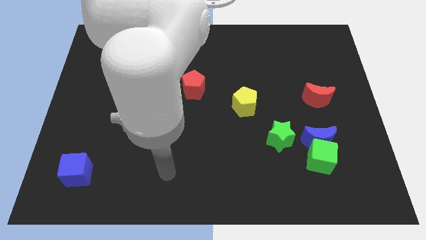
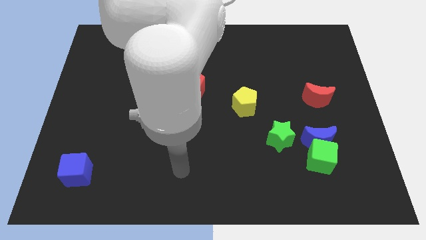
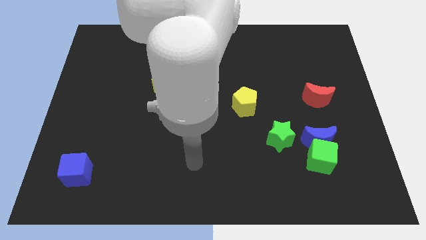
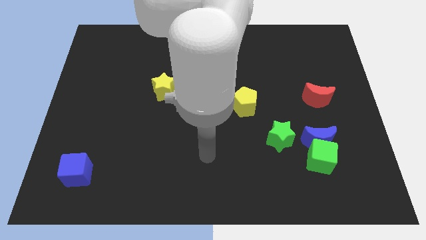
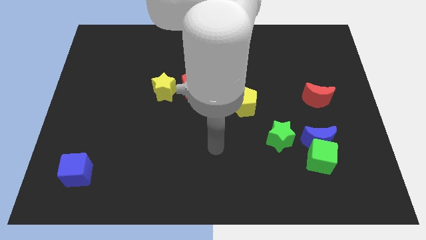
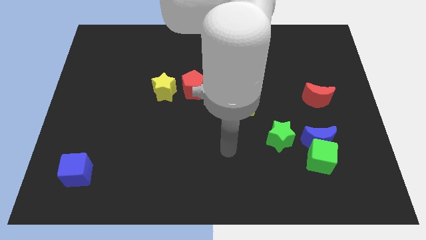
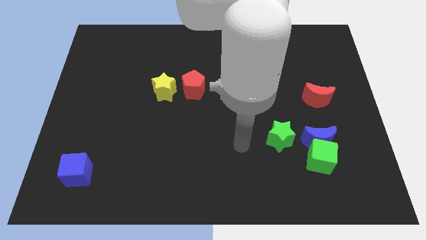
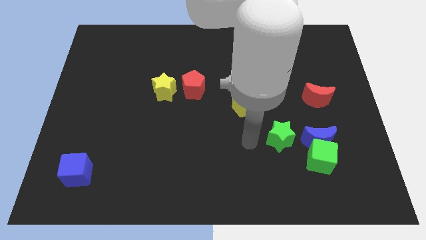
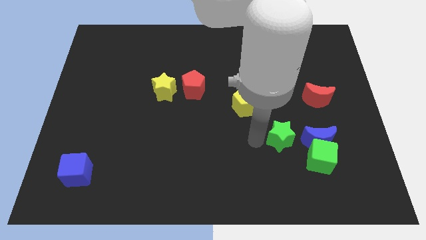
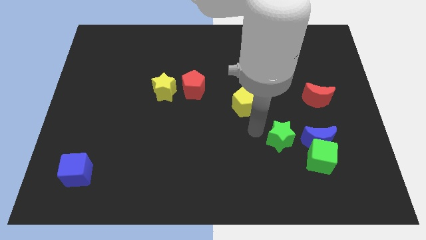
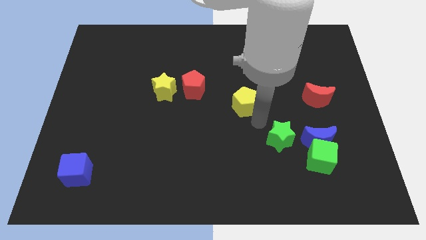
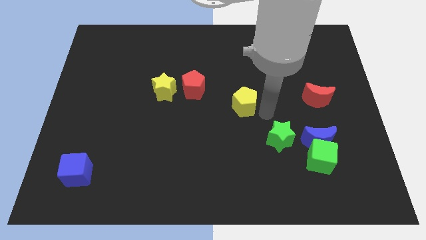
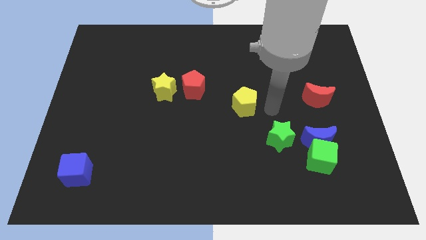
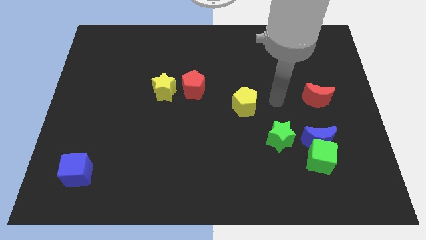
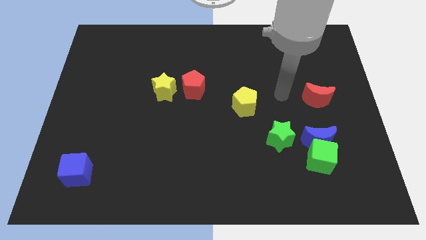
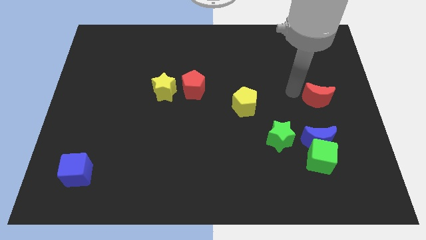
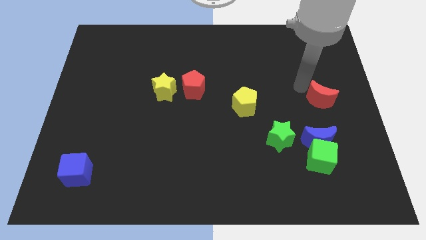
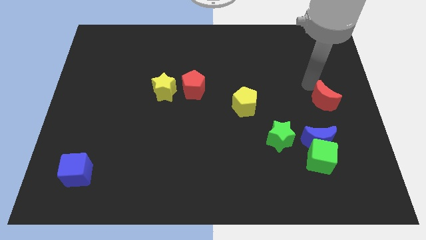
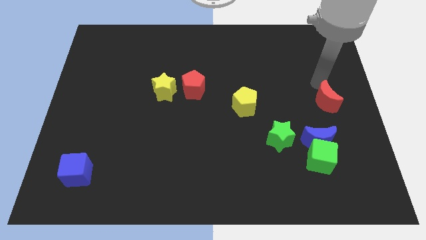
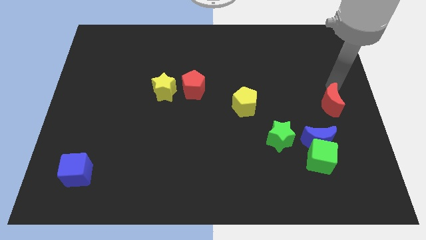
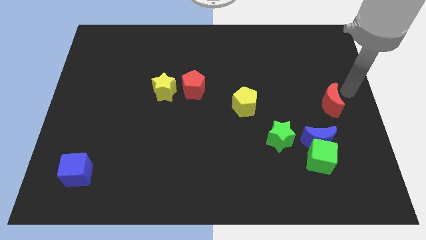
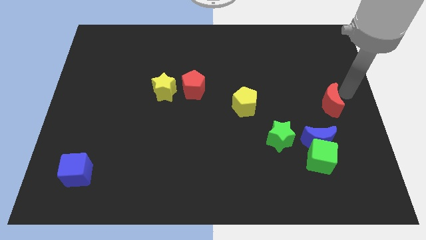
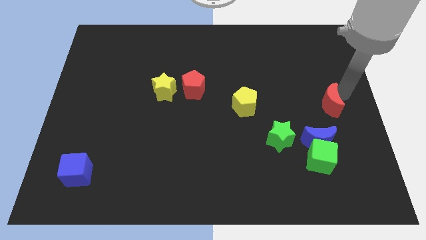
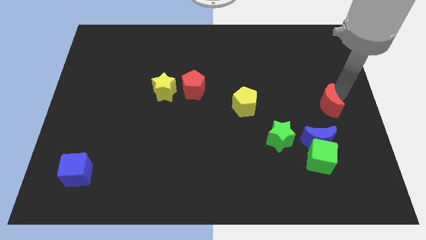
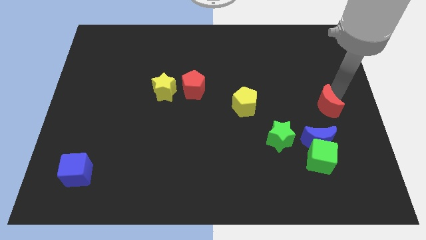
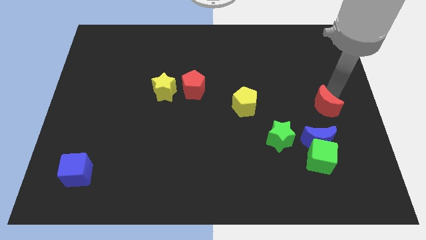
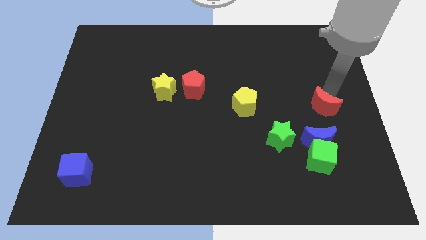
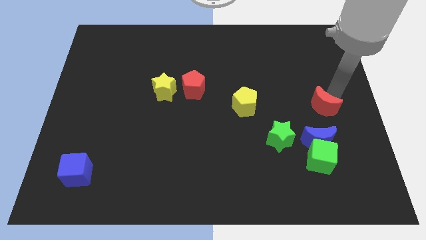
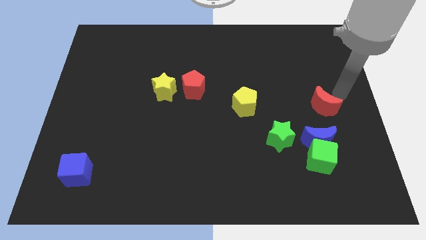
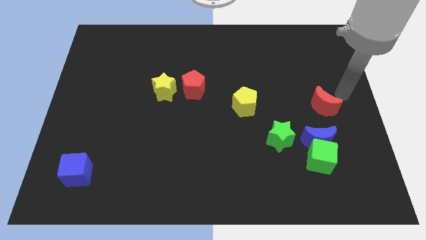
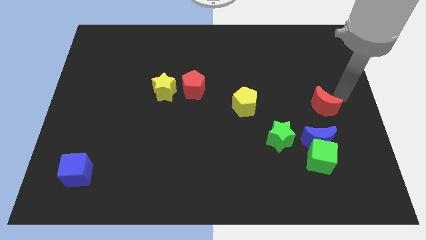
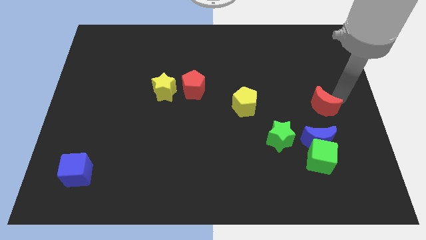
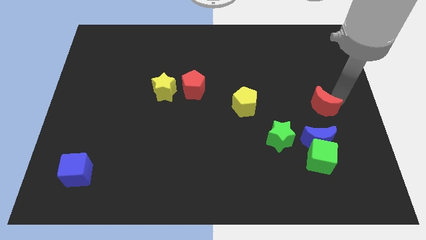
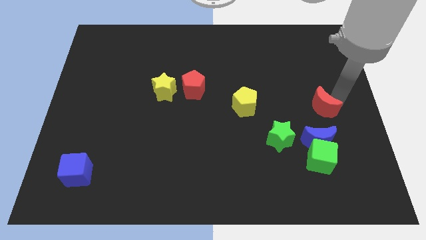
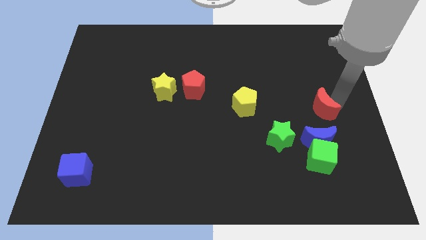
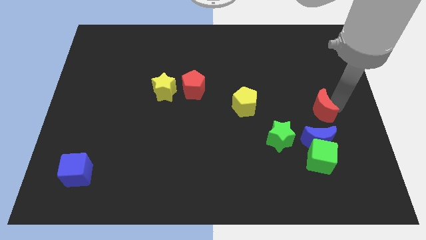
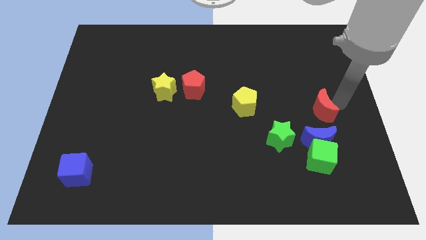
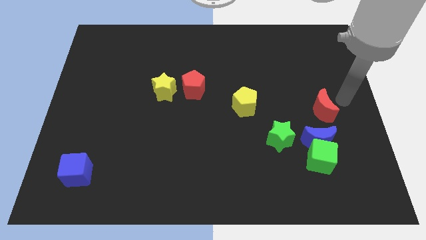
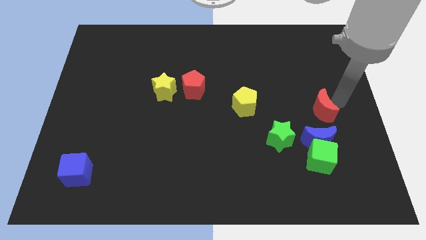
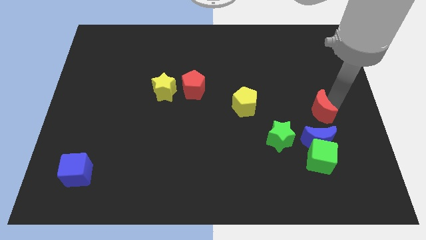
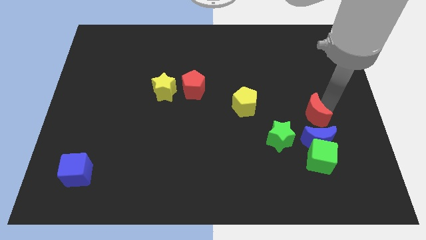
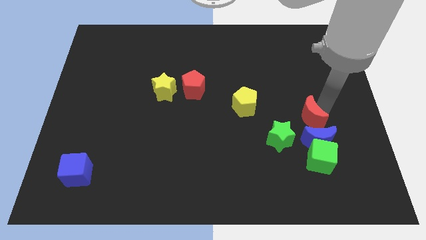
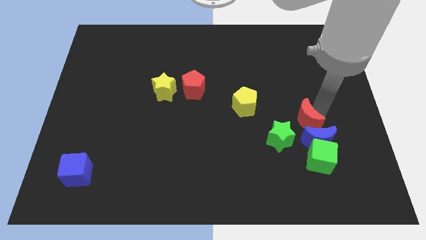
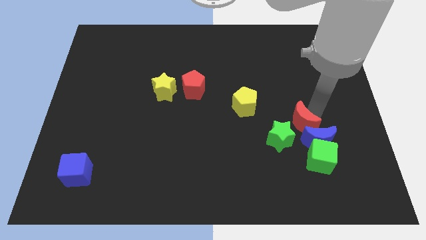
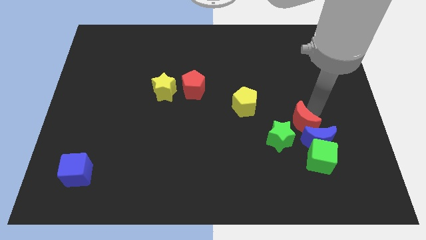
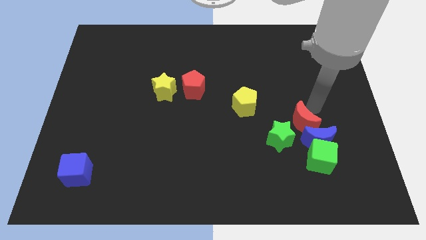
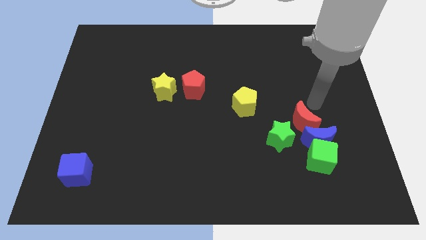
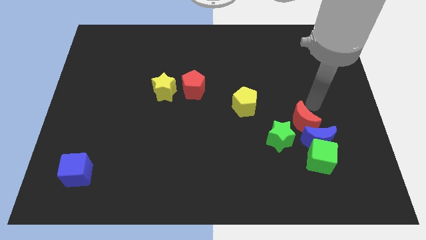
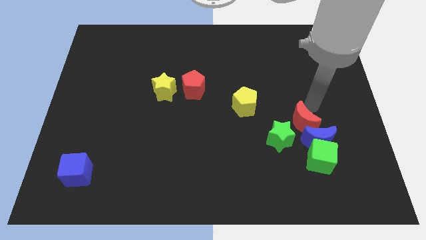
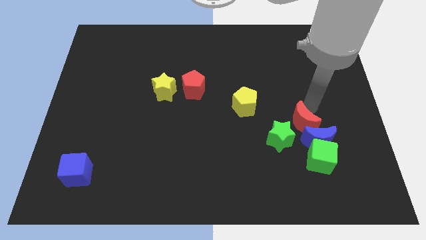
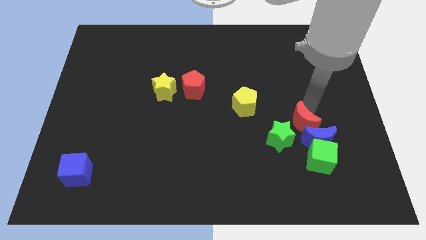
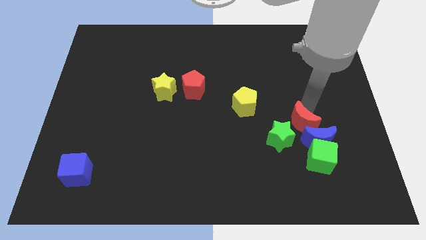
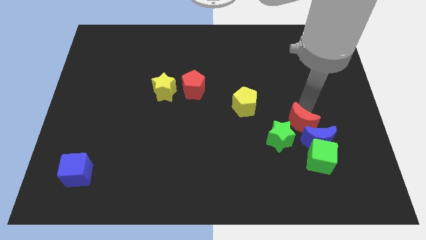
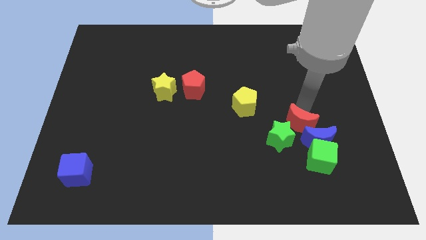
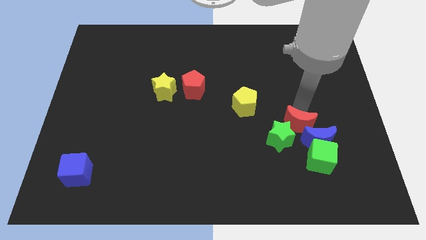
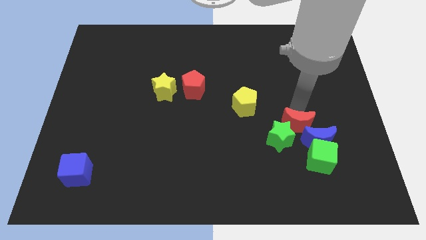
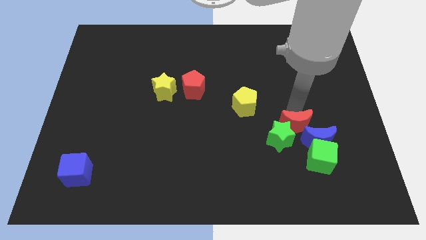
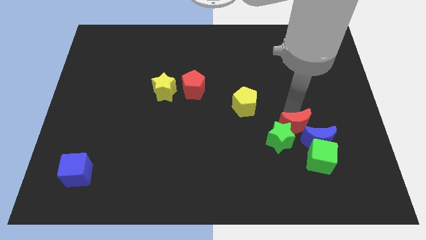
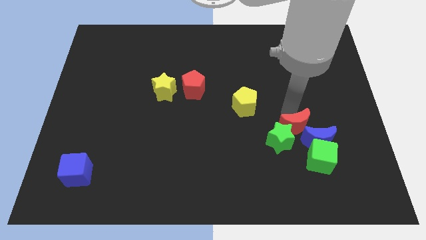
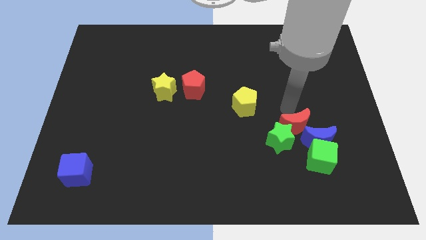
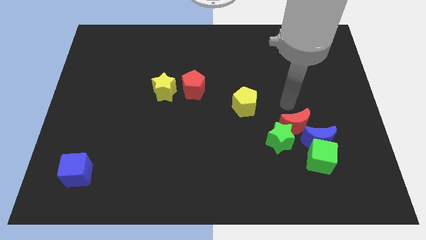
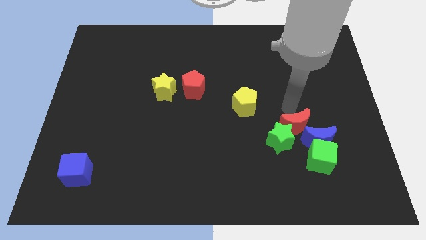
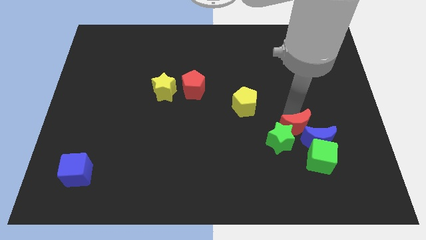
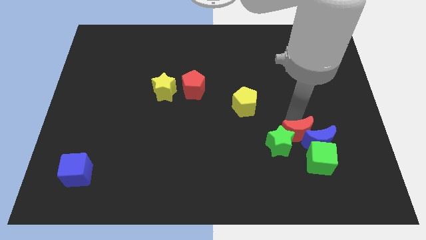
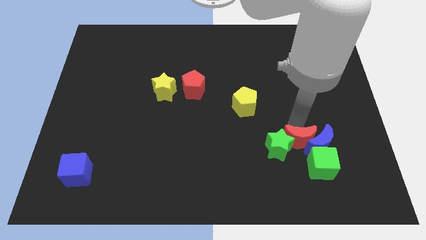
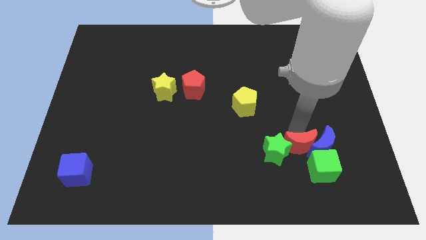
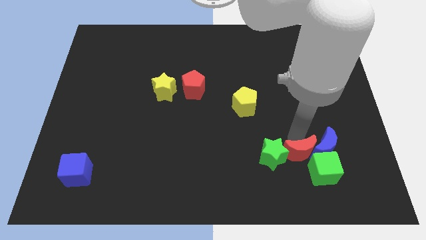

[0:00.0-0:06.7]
push the red moon to the green cube

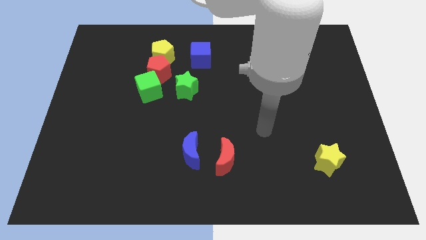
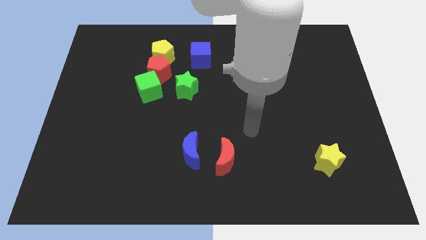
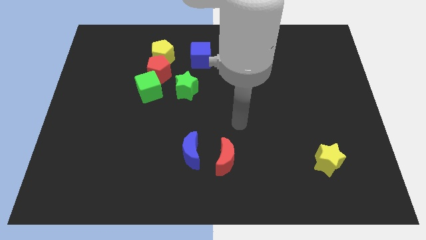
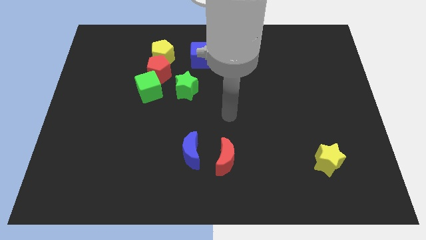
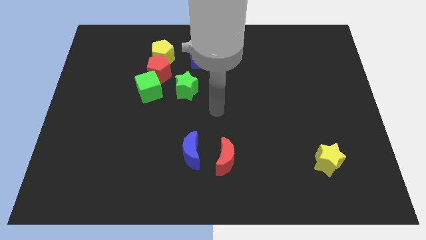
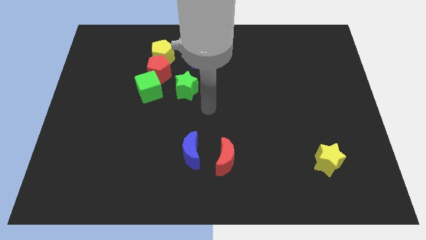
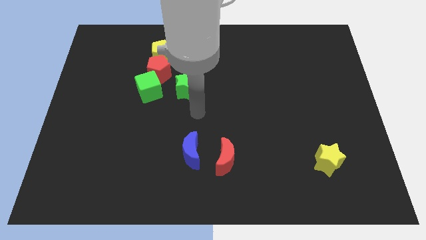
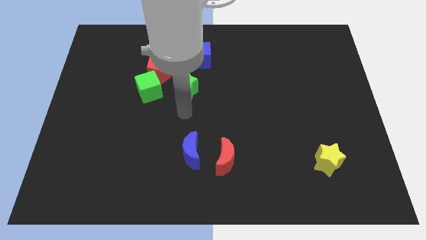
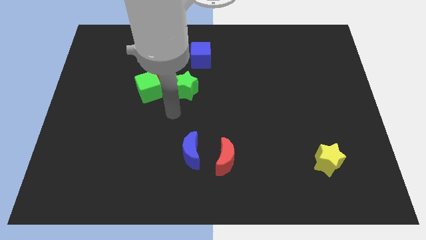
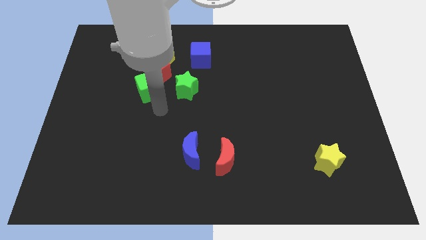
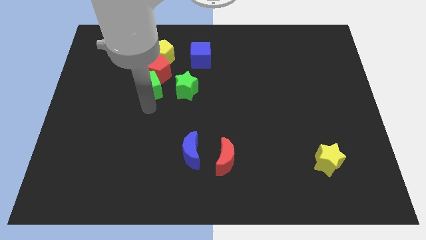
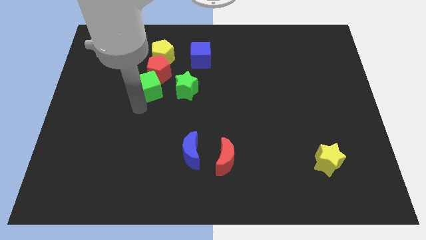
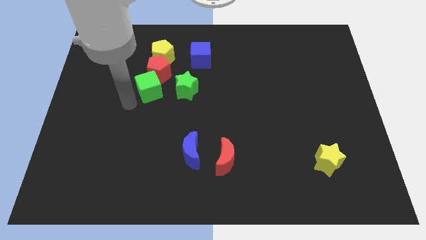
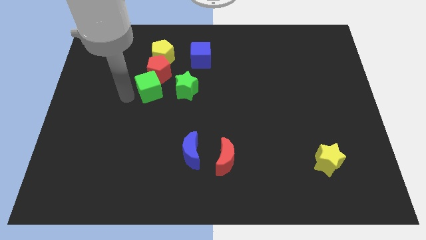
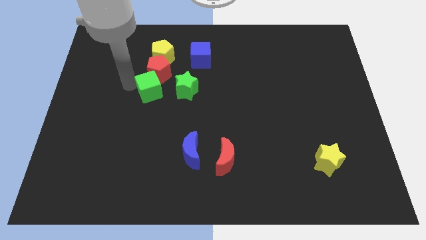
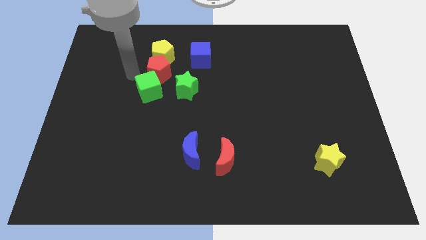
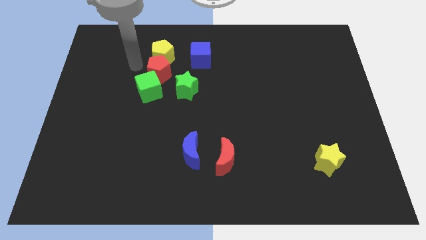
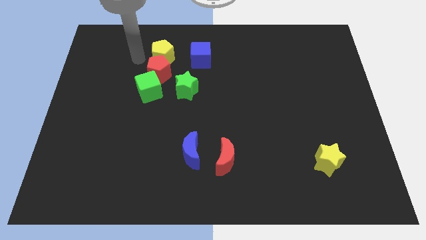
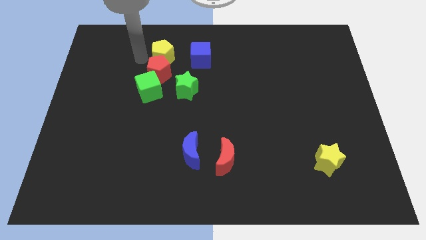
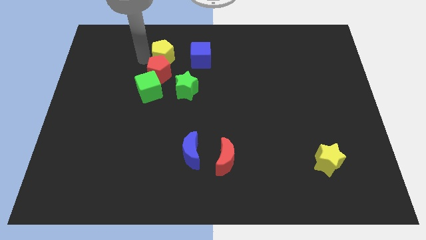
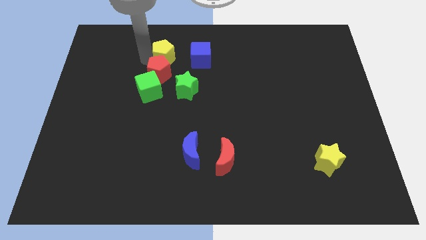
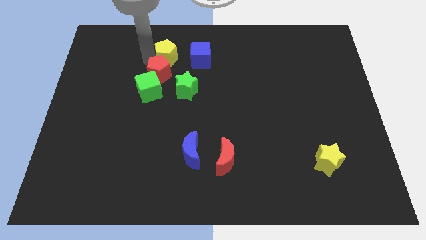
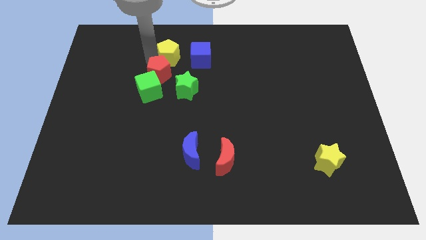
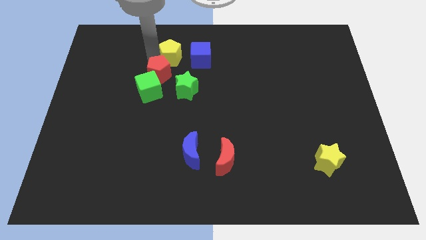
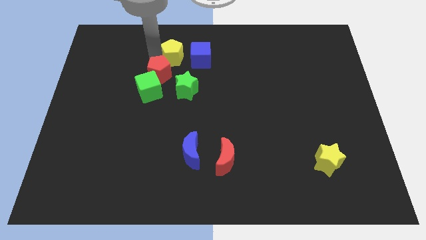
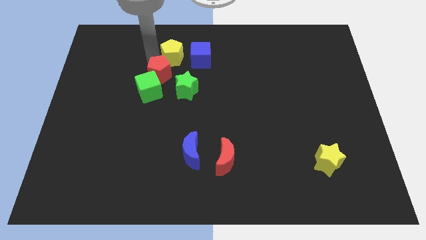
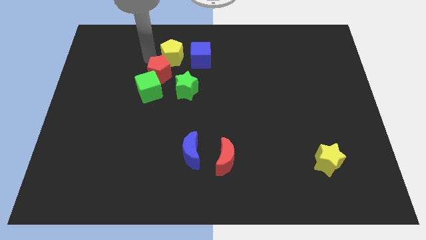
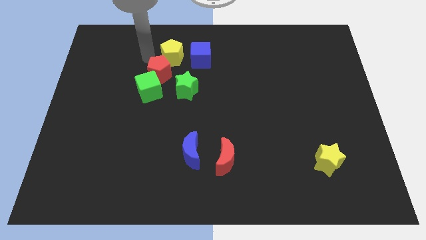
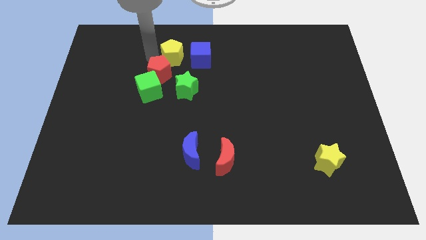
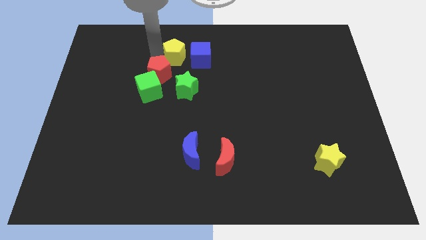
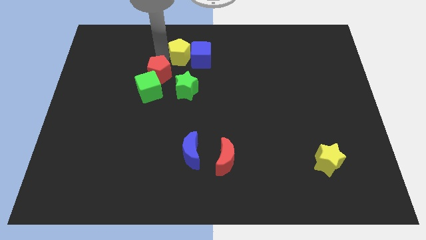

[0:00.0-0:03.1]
move the yellow pentagon next to the blue cube
